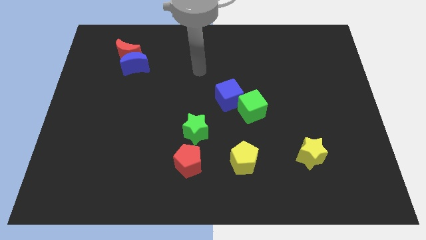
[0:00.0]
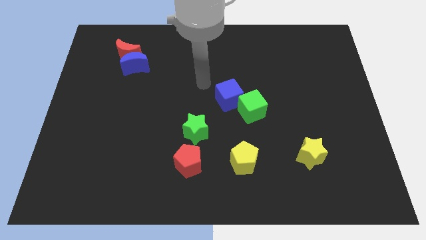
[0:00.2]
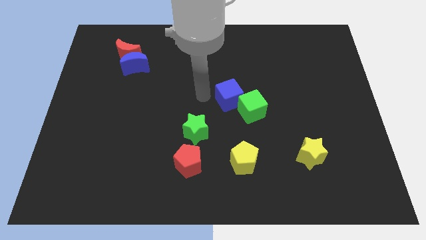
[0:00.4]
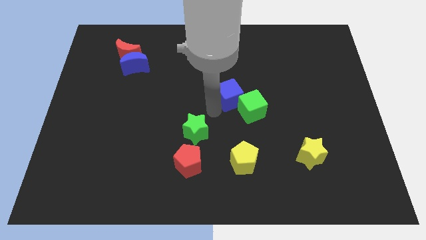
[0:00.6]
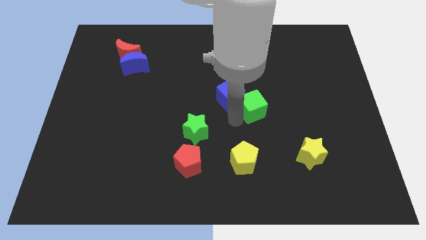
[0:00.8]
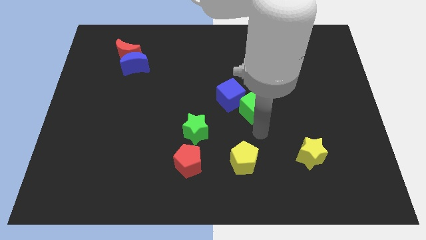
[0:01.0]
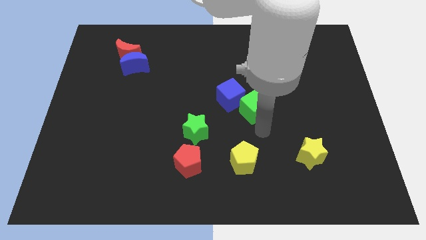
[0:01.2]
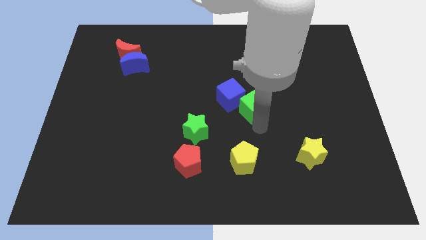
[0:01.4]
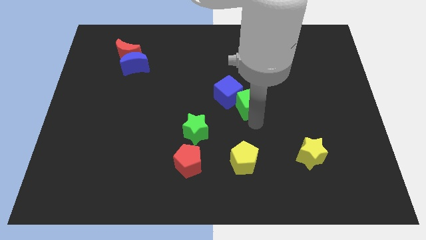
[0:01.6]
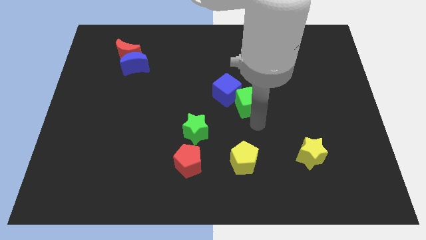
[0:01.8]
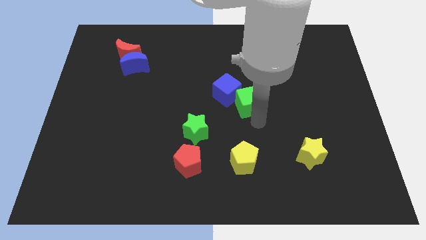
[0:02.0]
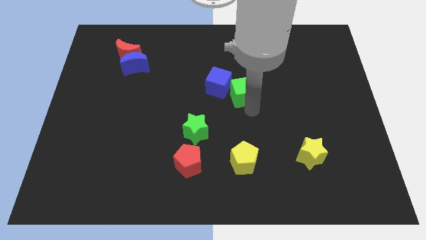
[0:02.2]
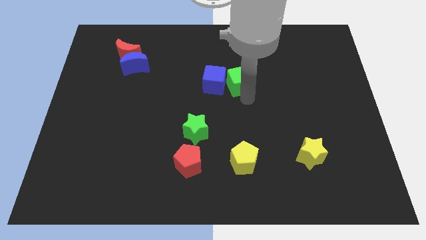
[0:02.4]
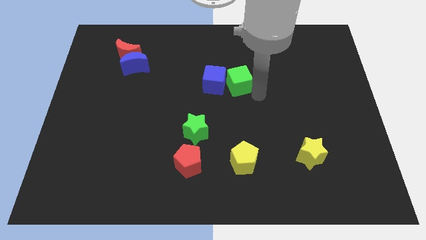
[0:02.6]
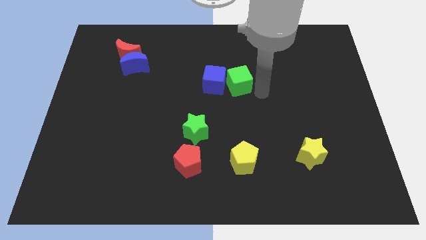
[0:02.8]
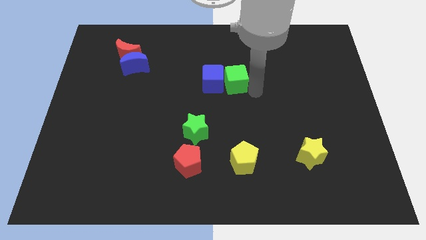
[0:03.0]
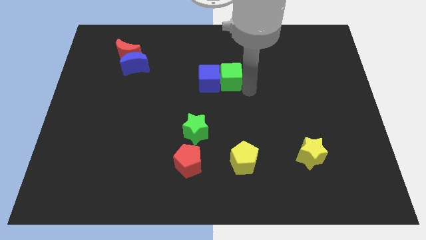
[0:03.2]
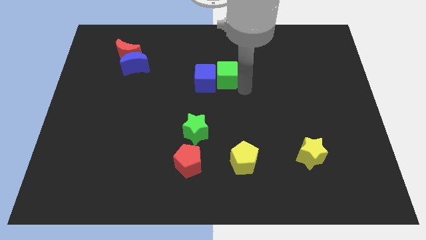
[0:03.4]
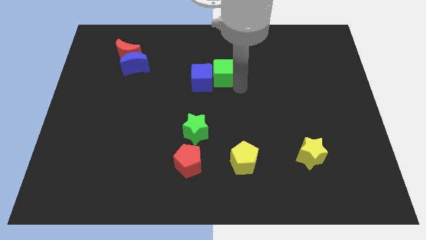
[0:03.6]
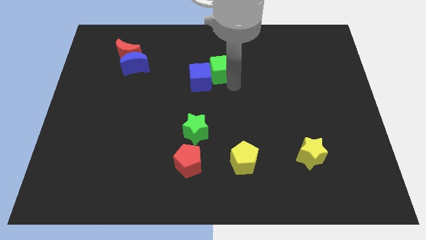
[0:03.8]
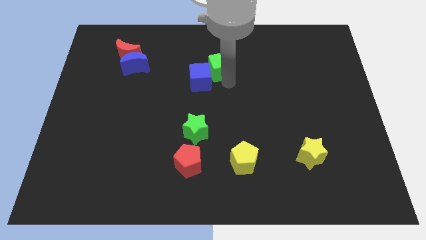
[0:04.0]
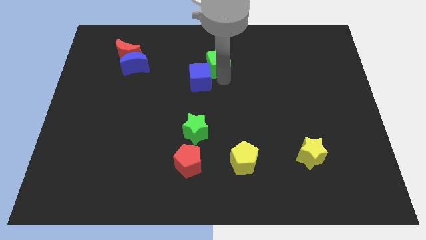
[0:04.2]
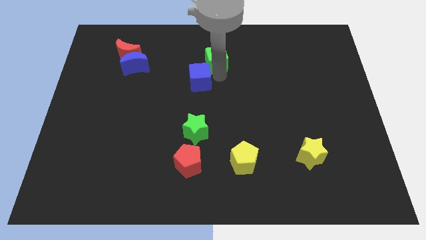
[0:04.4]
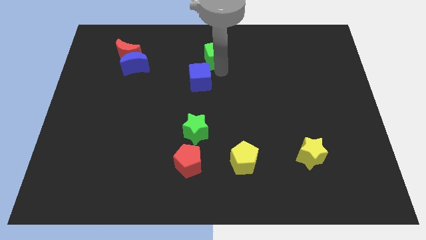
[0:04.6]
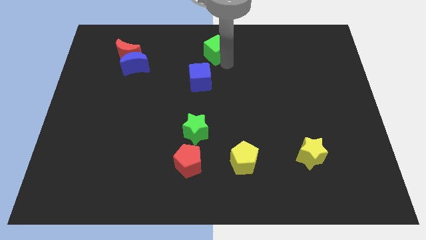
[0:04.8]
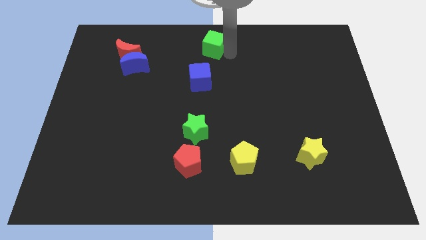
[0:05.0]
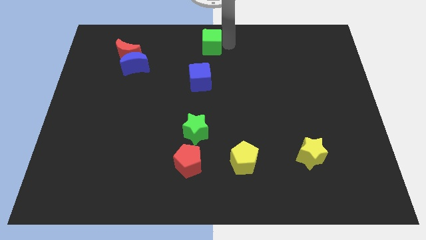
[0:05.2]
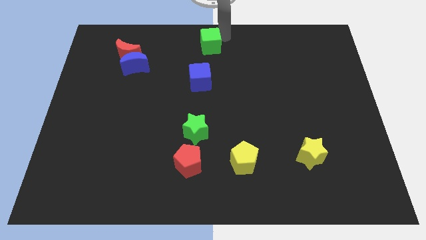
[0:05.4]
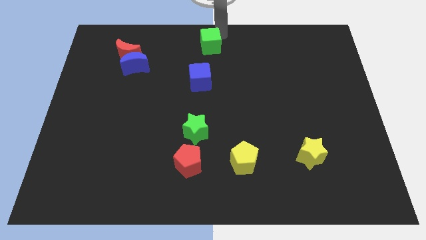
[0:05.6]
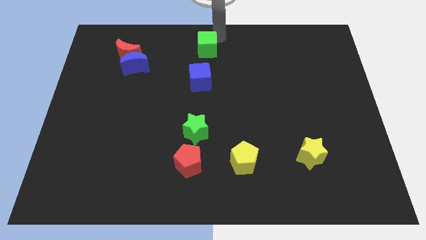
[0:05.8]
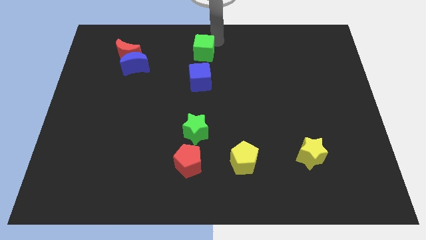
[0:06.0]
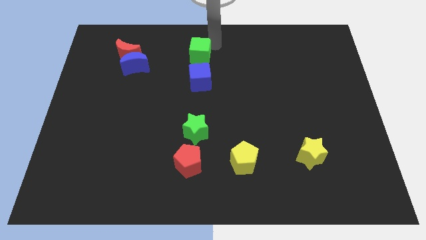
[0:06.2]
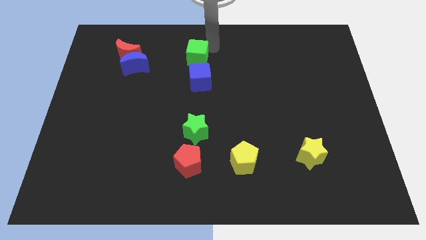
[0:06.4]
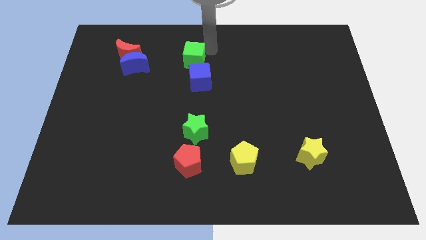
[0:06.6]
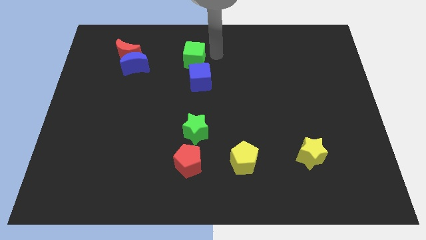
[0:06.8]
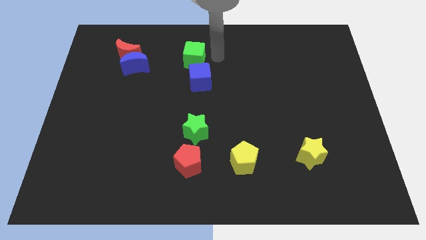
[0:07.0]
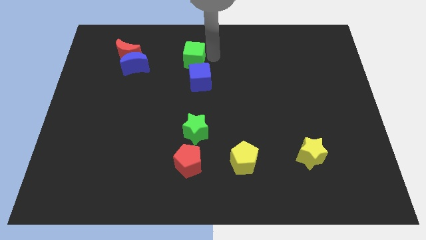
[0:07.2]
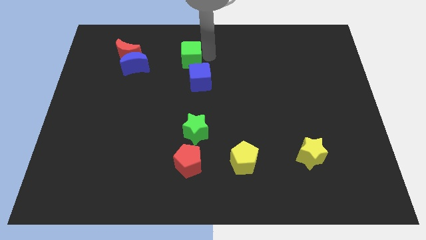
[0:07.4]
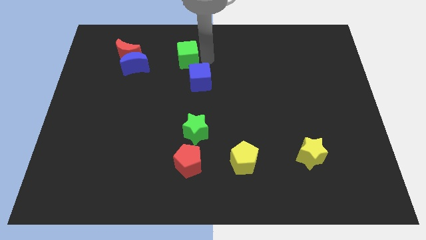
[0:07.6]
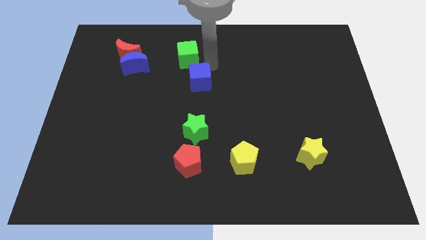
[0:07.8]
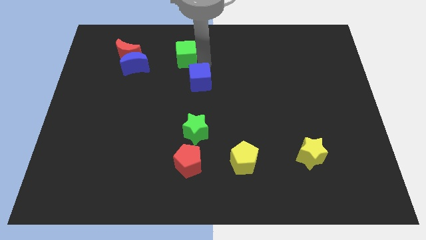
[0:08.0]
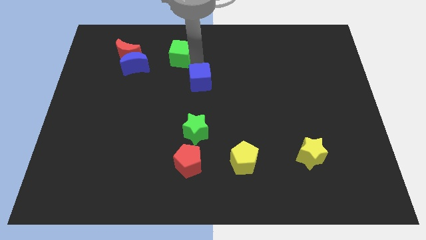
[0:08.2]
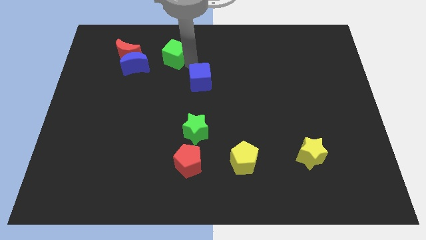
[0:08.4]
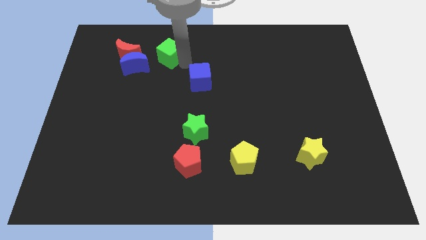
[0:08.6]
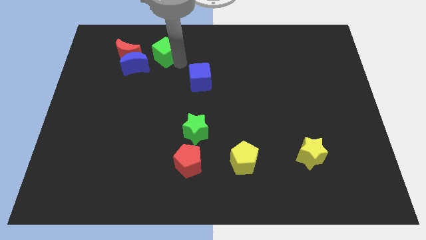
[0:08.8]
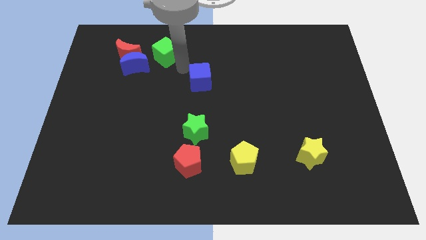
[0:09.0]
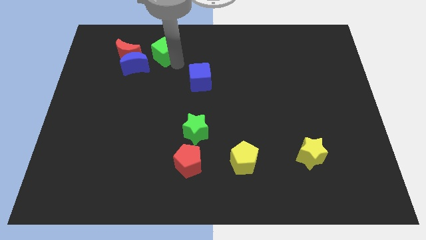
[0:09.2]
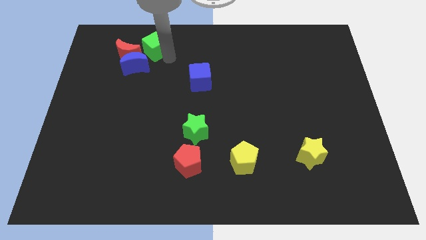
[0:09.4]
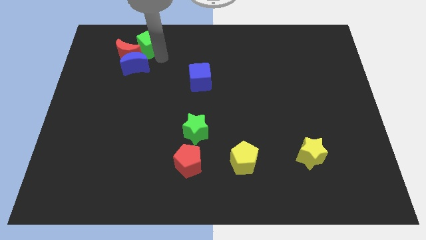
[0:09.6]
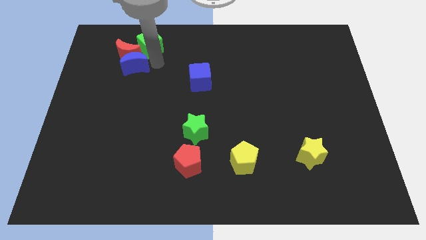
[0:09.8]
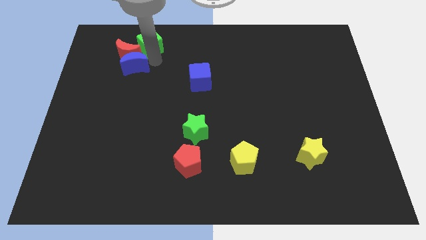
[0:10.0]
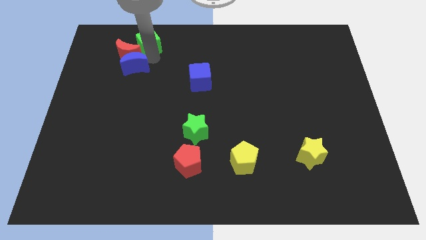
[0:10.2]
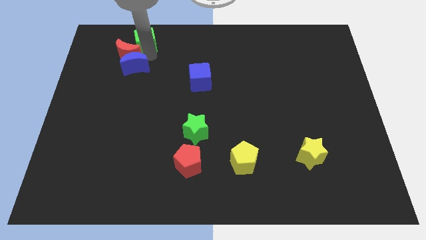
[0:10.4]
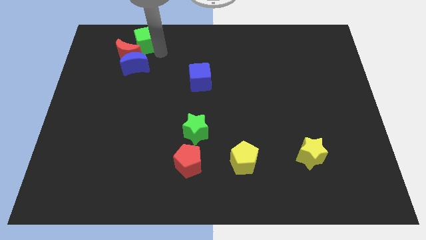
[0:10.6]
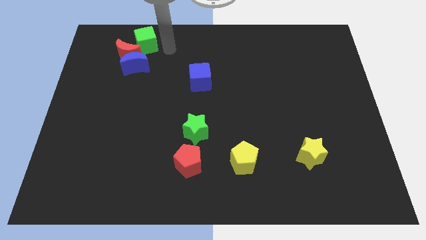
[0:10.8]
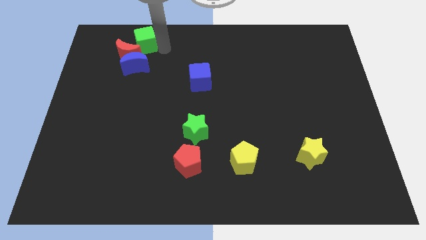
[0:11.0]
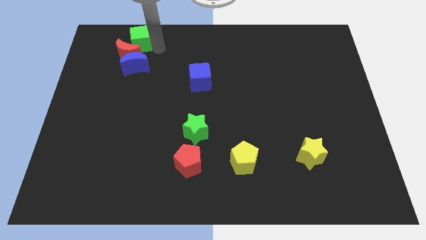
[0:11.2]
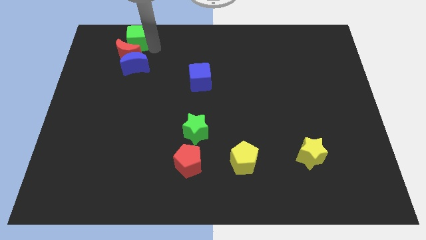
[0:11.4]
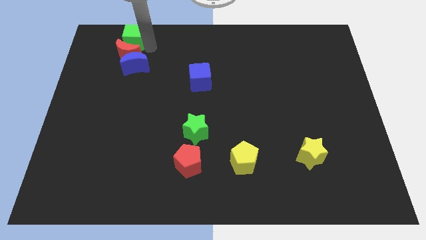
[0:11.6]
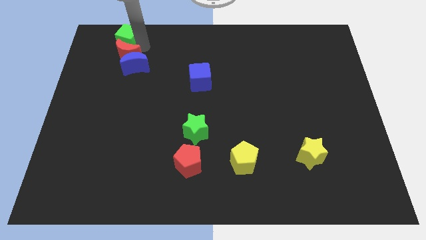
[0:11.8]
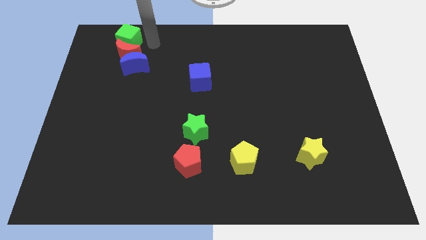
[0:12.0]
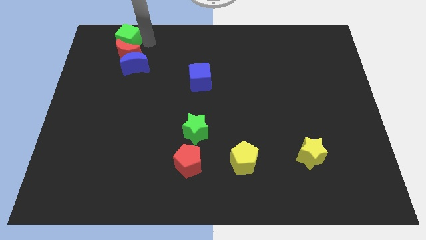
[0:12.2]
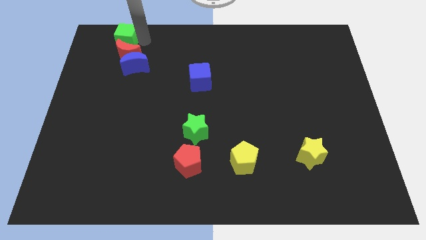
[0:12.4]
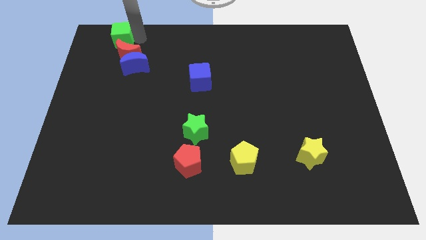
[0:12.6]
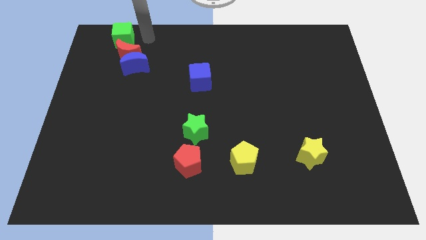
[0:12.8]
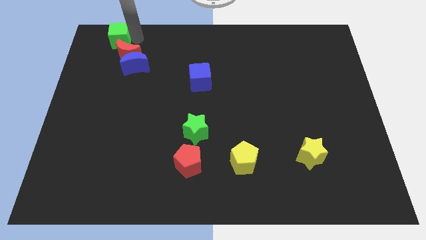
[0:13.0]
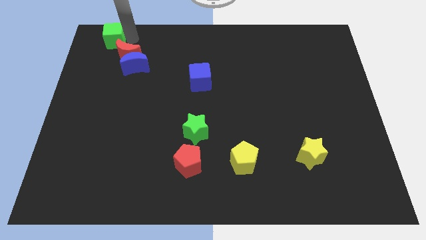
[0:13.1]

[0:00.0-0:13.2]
put the green cube to the top left corner
